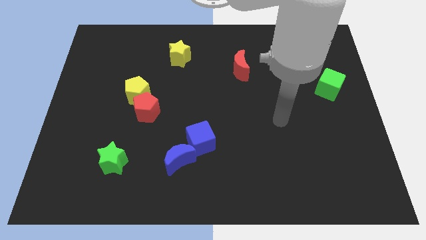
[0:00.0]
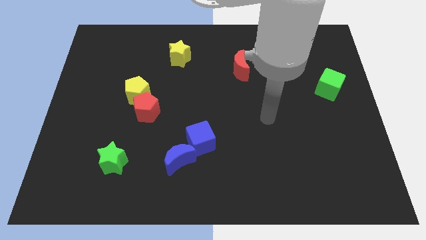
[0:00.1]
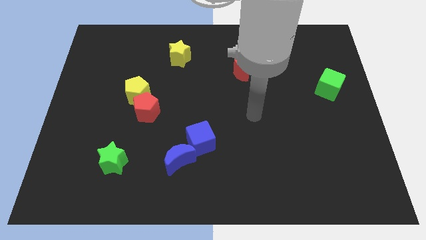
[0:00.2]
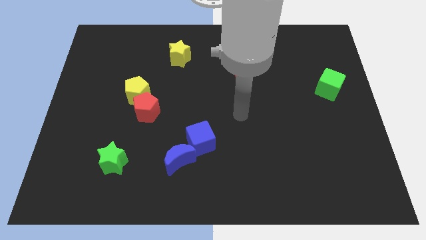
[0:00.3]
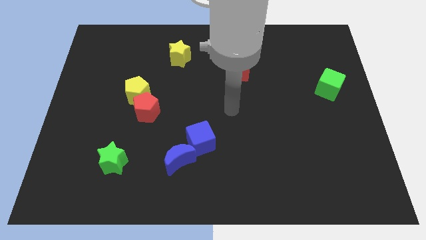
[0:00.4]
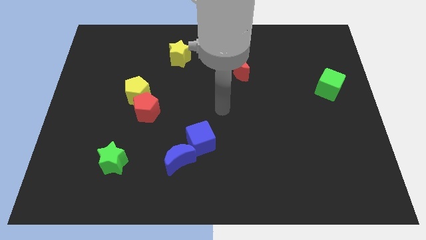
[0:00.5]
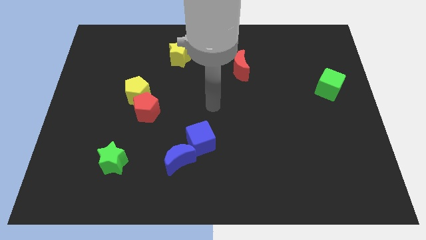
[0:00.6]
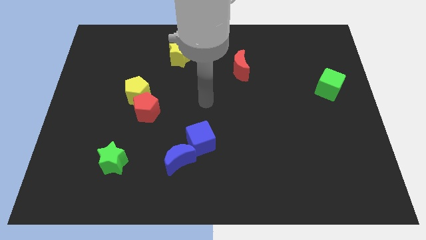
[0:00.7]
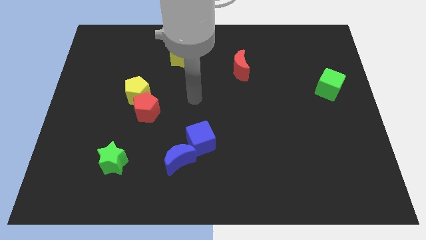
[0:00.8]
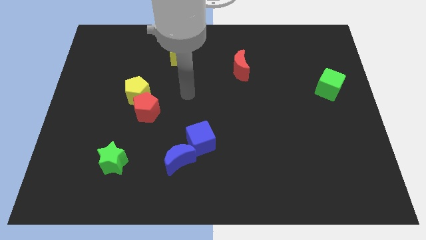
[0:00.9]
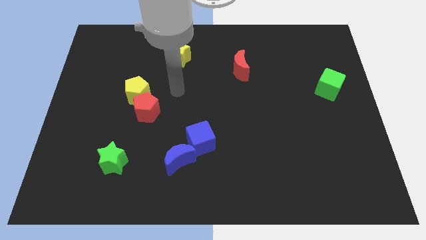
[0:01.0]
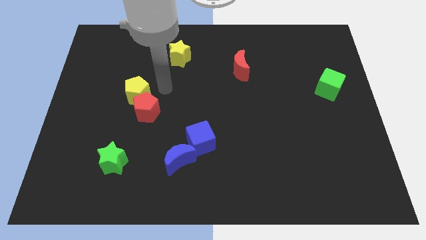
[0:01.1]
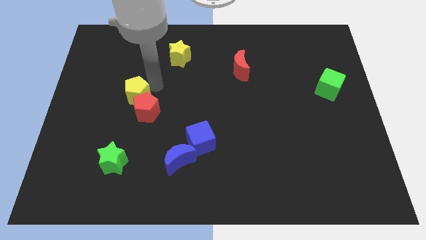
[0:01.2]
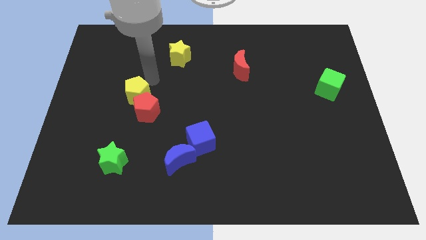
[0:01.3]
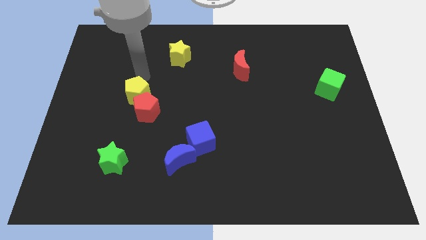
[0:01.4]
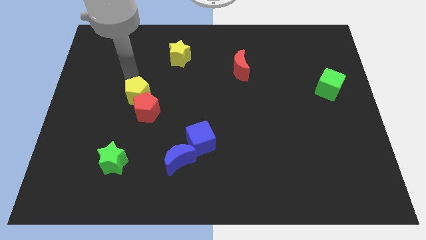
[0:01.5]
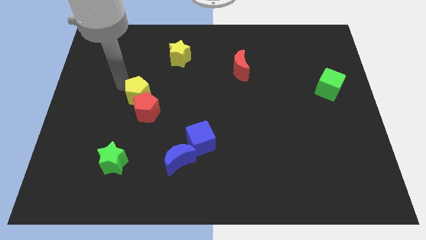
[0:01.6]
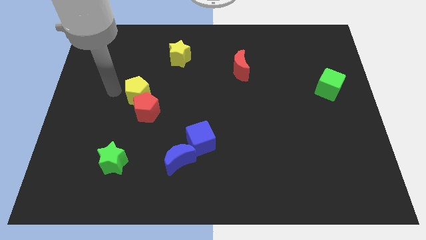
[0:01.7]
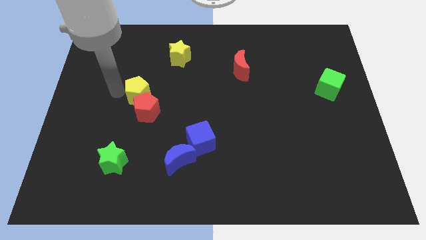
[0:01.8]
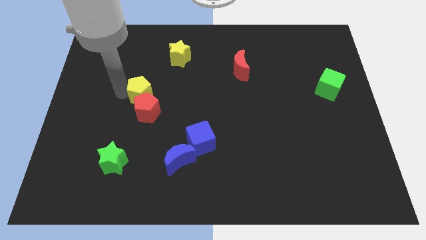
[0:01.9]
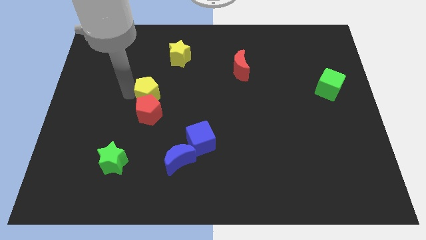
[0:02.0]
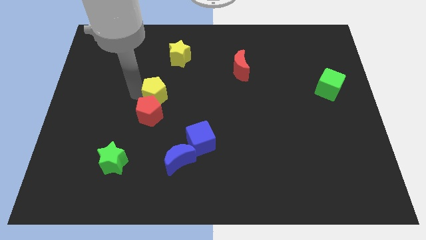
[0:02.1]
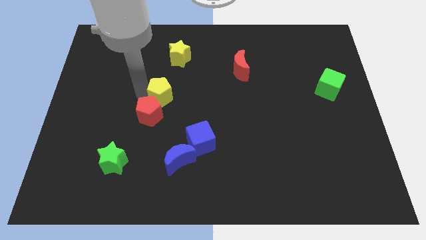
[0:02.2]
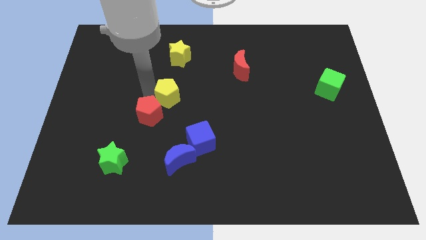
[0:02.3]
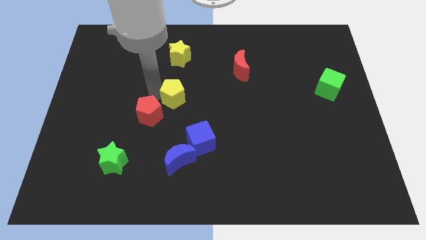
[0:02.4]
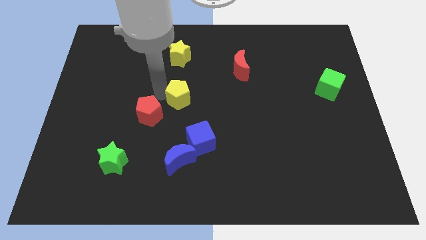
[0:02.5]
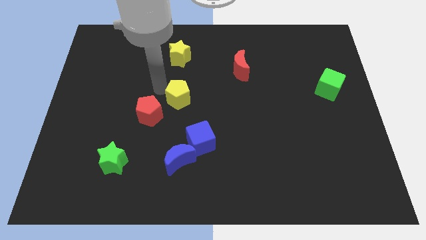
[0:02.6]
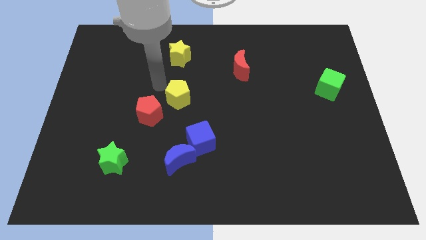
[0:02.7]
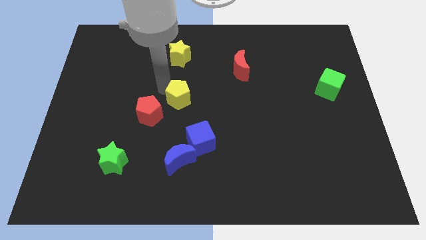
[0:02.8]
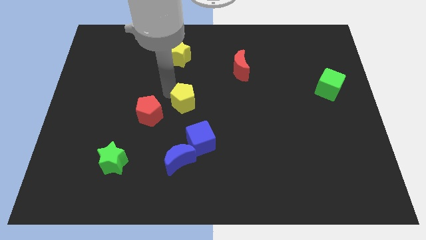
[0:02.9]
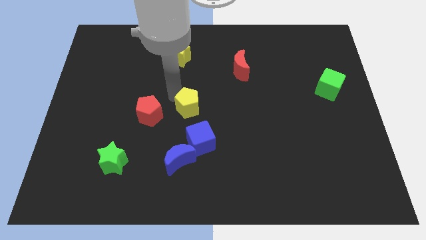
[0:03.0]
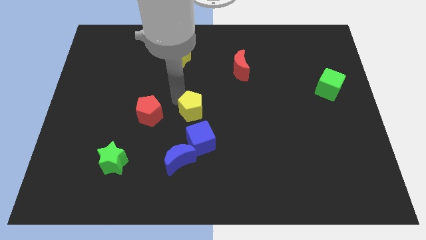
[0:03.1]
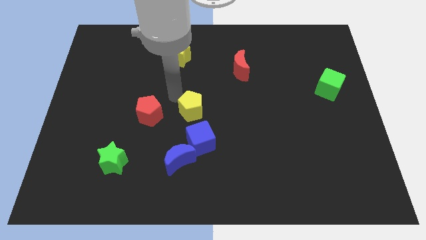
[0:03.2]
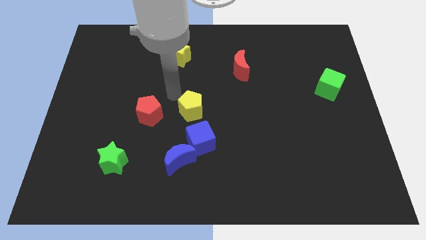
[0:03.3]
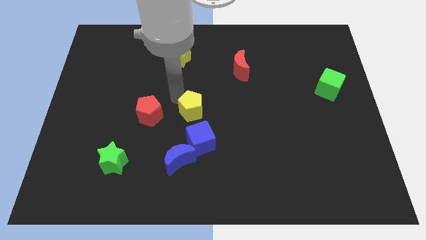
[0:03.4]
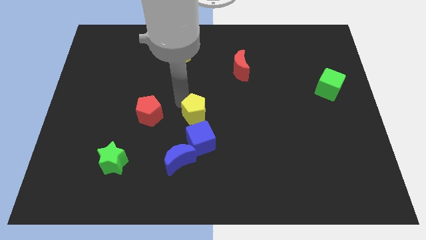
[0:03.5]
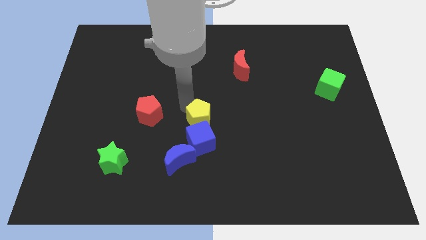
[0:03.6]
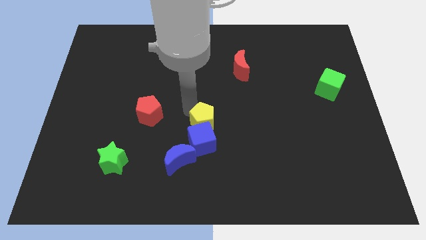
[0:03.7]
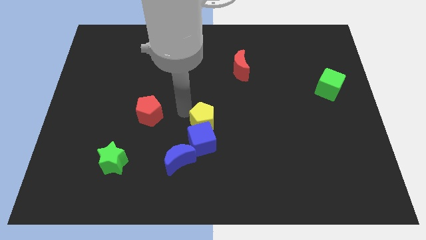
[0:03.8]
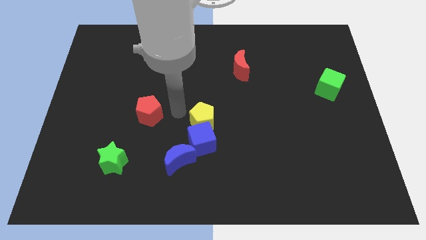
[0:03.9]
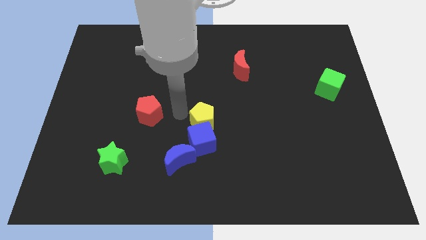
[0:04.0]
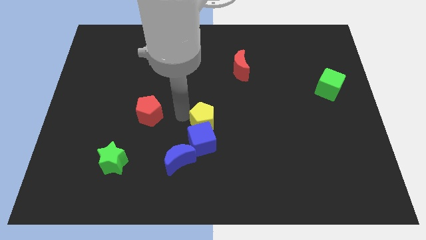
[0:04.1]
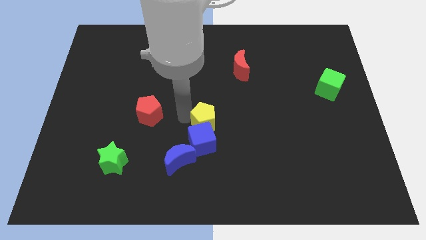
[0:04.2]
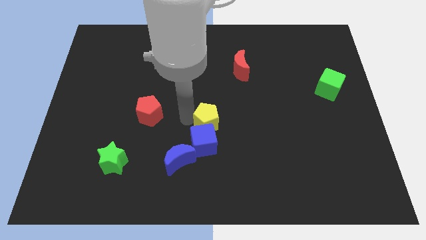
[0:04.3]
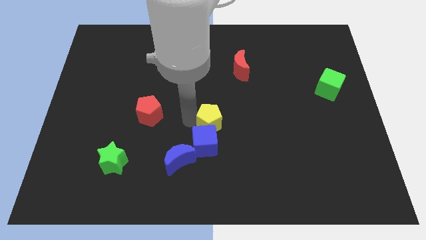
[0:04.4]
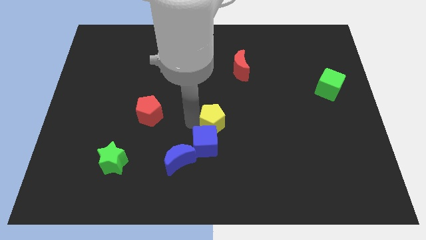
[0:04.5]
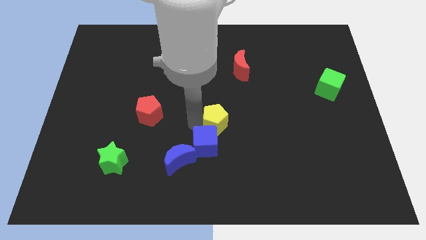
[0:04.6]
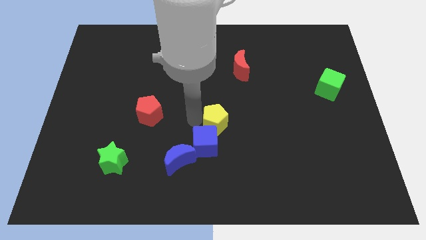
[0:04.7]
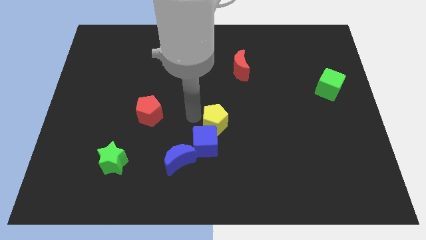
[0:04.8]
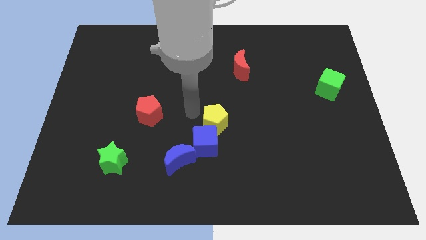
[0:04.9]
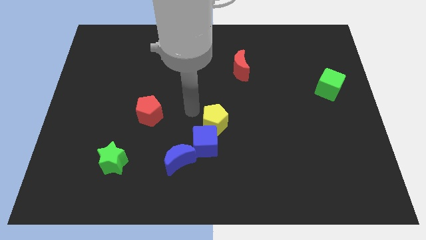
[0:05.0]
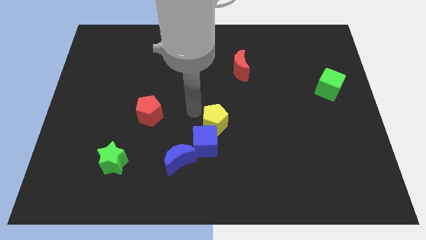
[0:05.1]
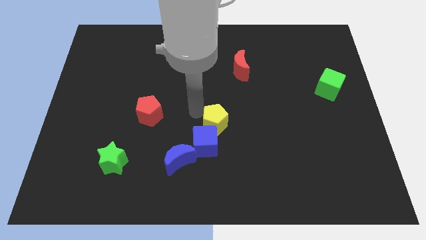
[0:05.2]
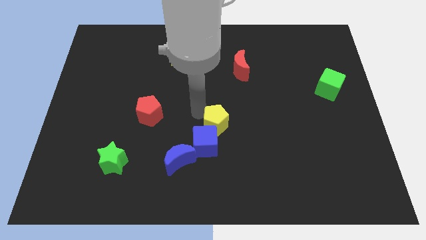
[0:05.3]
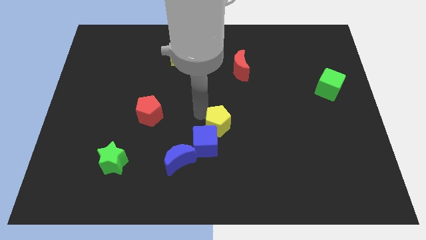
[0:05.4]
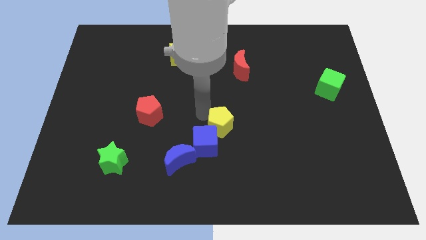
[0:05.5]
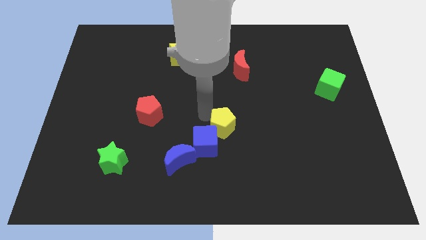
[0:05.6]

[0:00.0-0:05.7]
move the yellow pentagon right of the blue cube

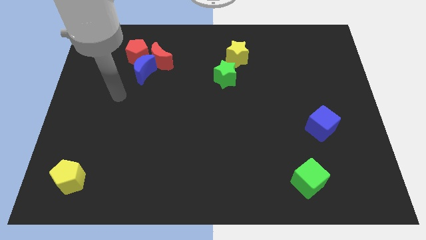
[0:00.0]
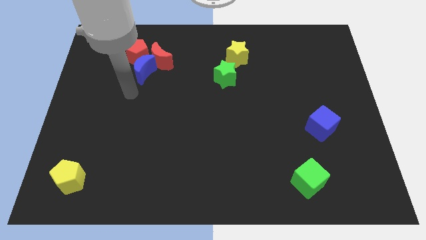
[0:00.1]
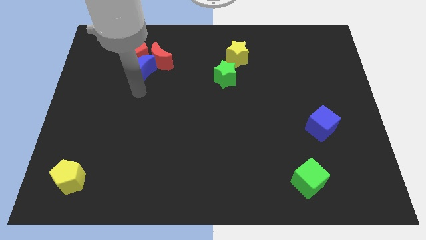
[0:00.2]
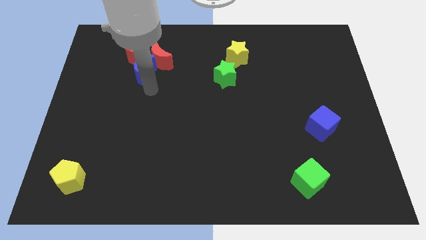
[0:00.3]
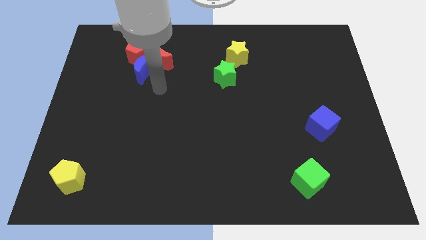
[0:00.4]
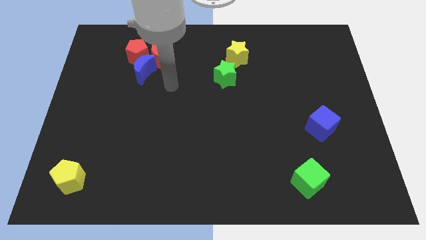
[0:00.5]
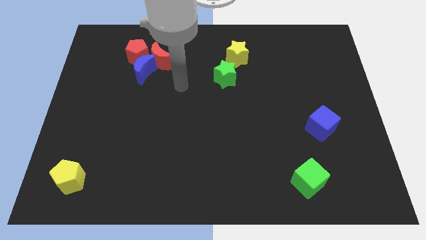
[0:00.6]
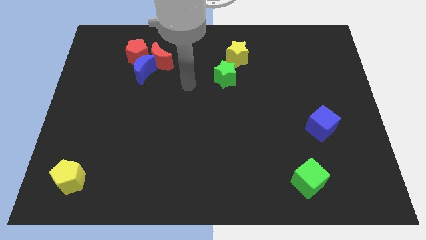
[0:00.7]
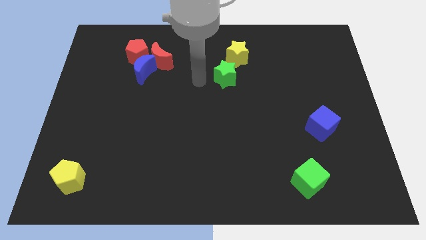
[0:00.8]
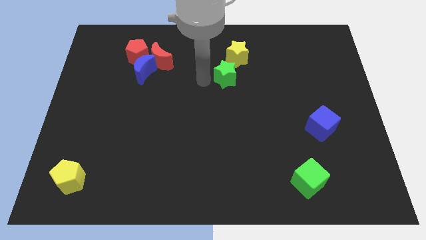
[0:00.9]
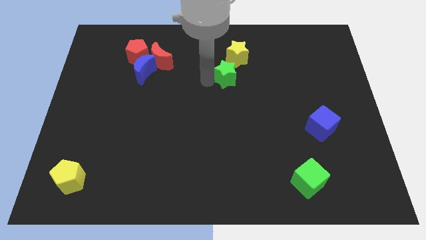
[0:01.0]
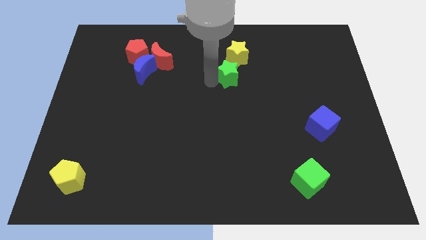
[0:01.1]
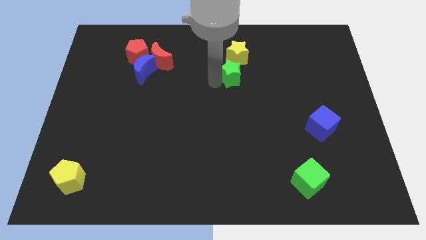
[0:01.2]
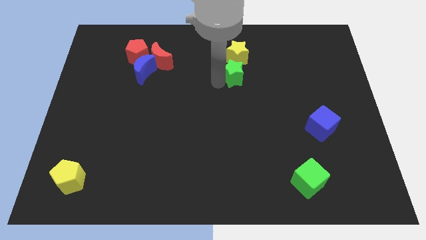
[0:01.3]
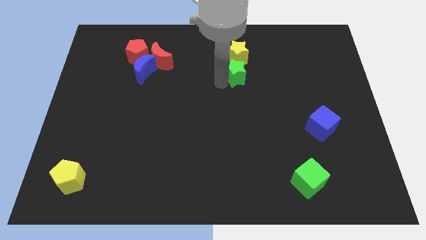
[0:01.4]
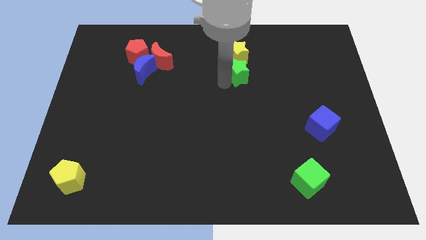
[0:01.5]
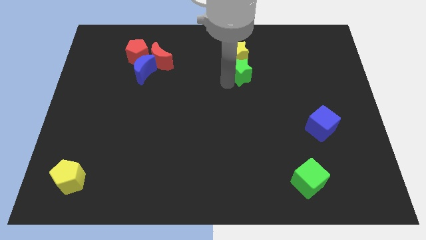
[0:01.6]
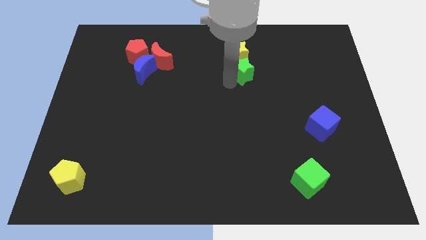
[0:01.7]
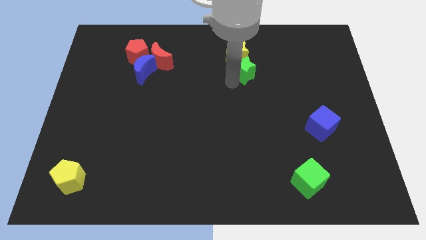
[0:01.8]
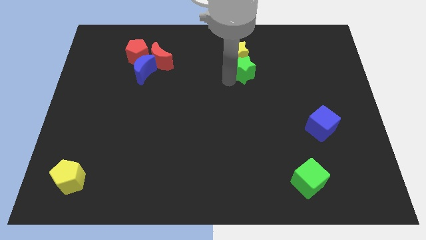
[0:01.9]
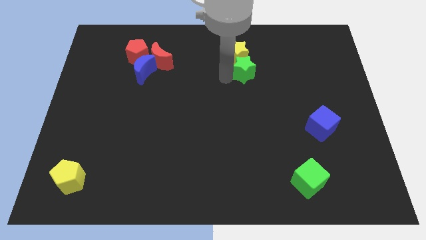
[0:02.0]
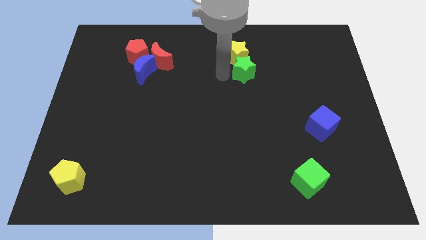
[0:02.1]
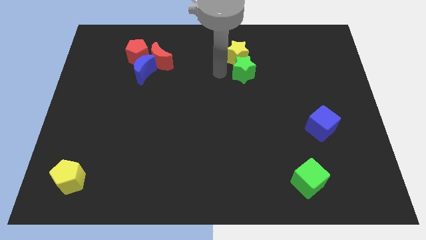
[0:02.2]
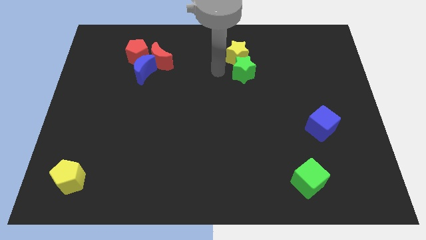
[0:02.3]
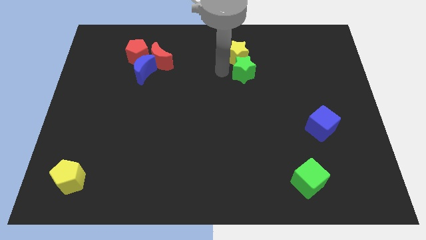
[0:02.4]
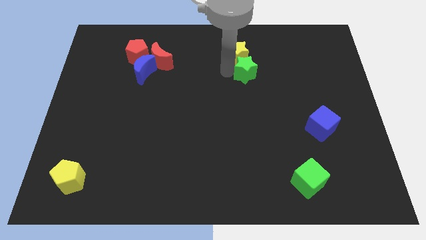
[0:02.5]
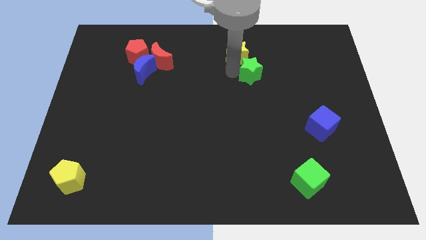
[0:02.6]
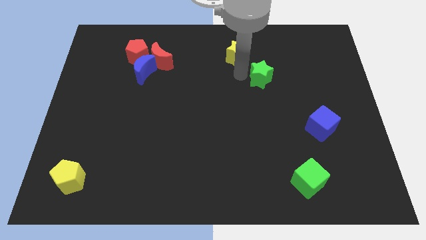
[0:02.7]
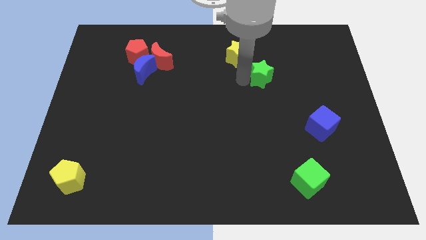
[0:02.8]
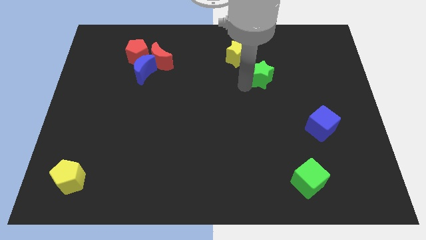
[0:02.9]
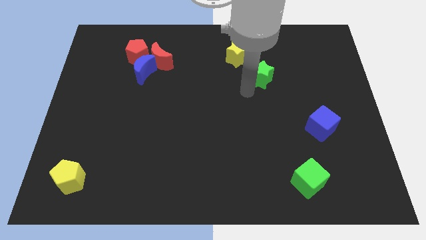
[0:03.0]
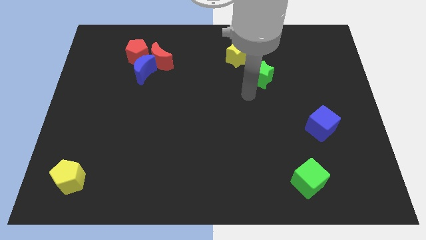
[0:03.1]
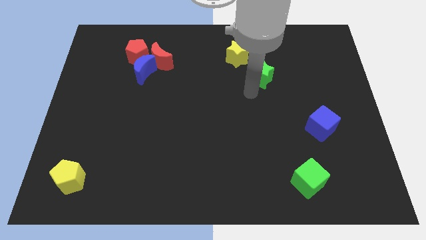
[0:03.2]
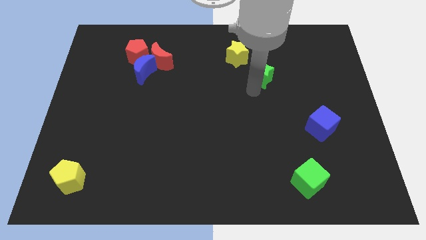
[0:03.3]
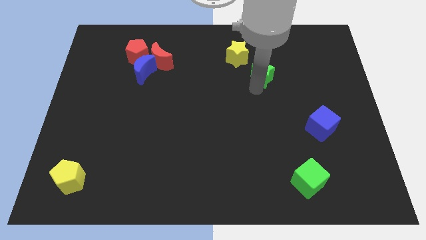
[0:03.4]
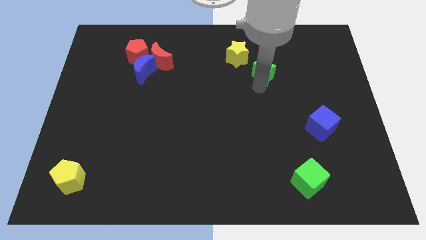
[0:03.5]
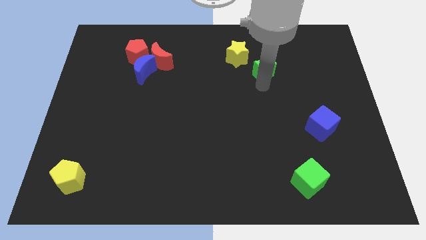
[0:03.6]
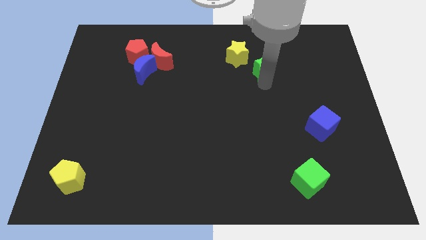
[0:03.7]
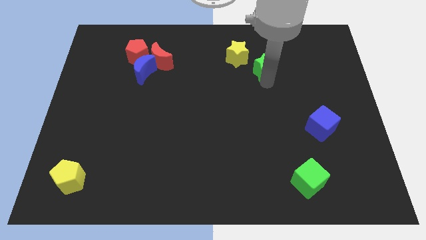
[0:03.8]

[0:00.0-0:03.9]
slide the green star to the right of the yellow star
